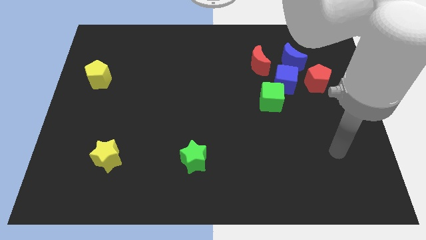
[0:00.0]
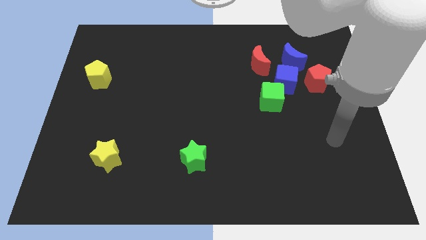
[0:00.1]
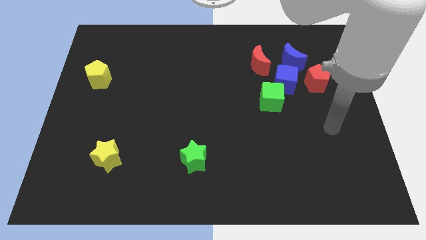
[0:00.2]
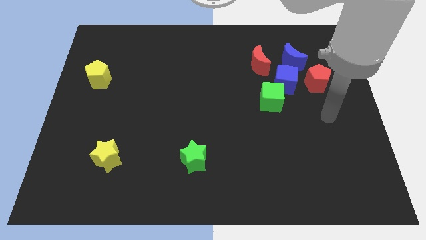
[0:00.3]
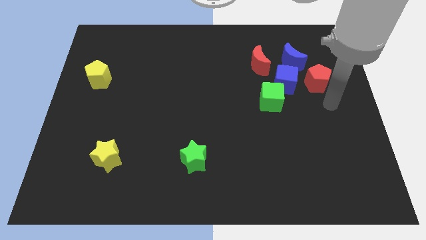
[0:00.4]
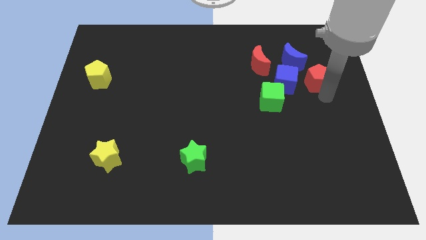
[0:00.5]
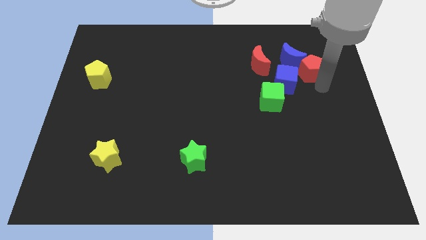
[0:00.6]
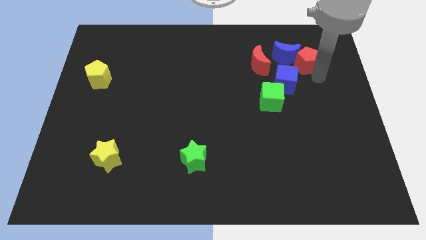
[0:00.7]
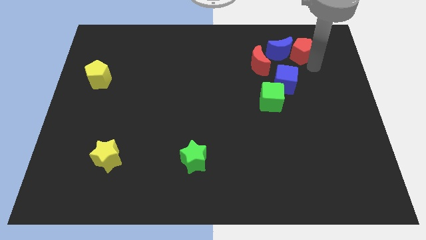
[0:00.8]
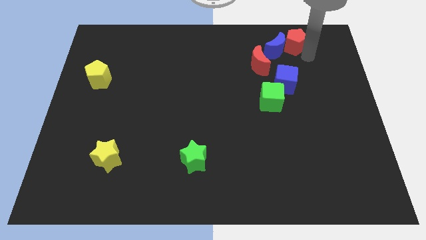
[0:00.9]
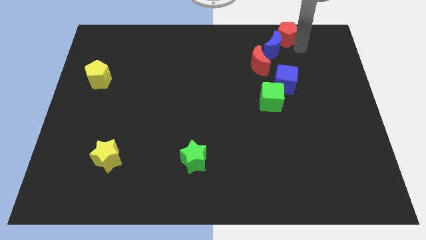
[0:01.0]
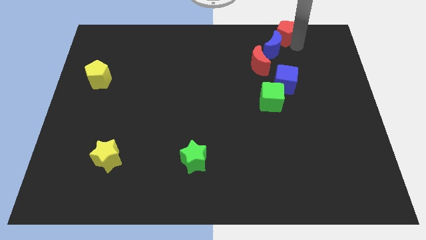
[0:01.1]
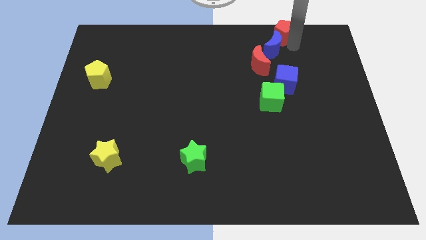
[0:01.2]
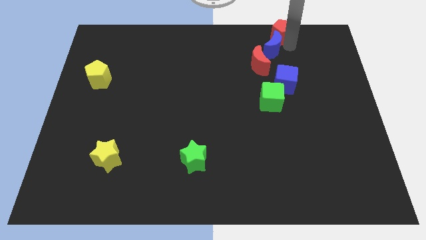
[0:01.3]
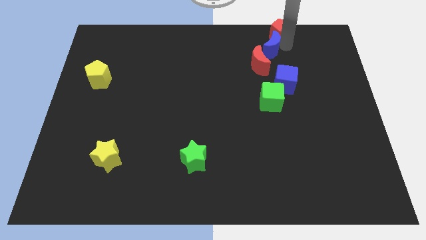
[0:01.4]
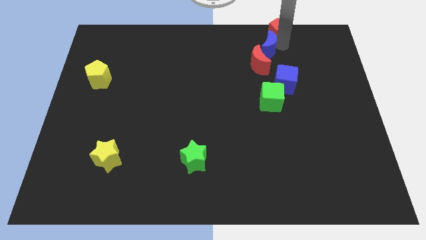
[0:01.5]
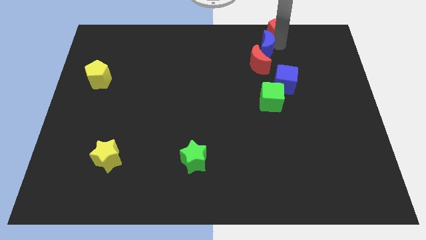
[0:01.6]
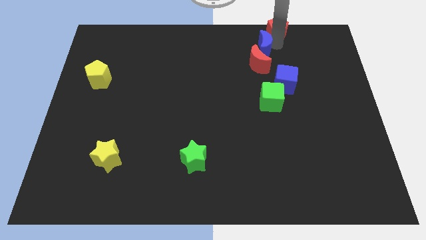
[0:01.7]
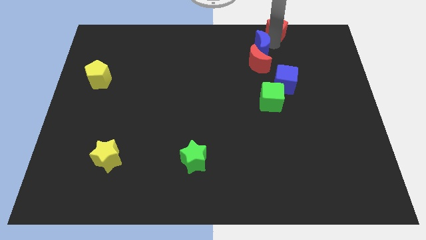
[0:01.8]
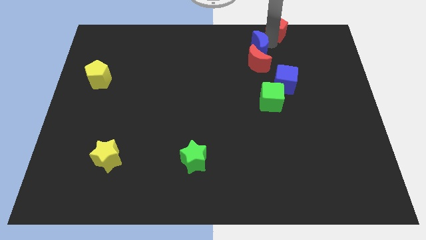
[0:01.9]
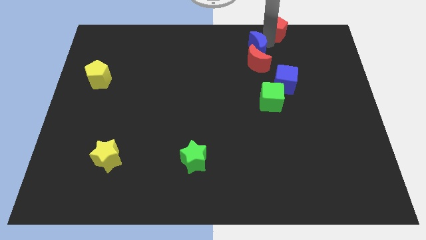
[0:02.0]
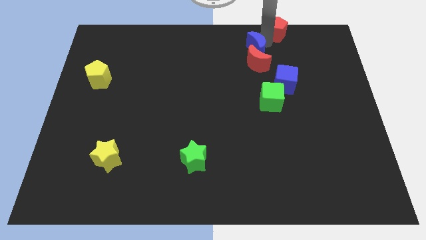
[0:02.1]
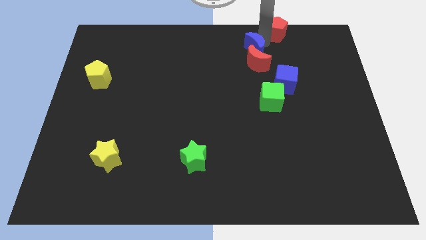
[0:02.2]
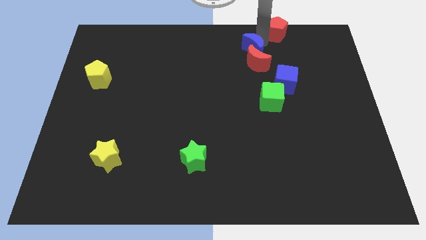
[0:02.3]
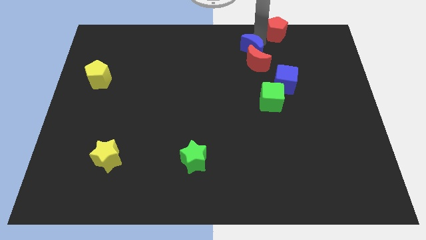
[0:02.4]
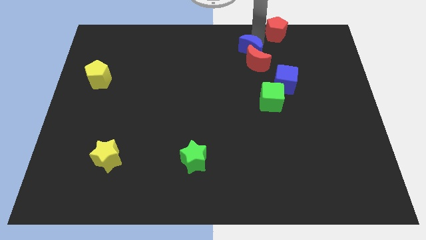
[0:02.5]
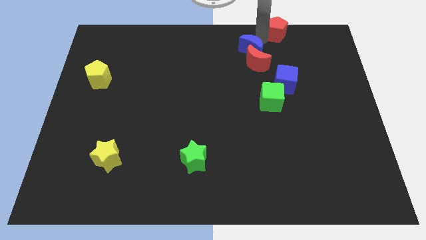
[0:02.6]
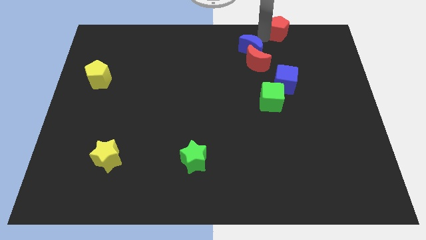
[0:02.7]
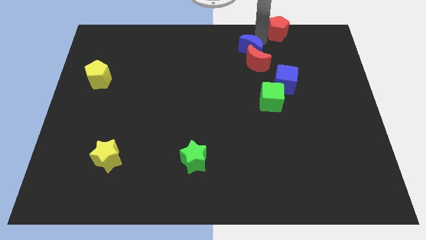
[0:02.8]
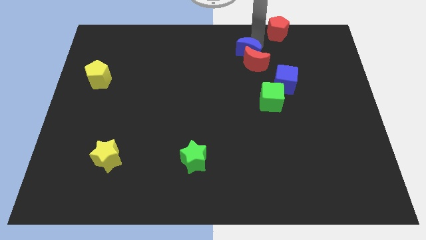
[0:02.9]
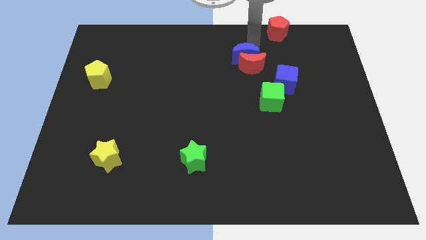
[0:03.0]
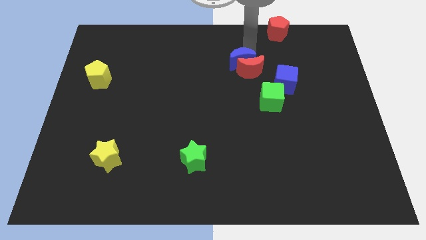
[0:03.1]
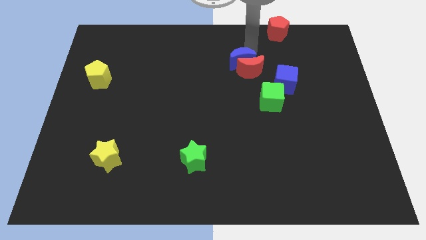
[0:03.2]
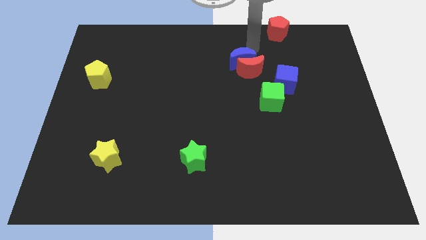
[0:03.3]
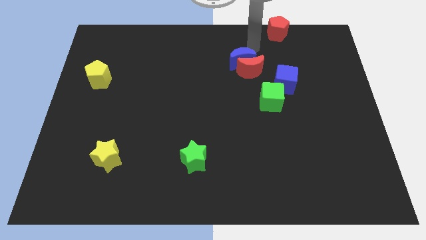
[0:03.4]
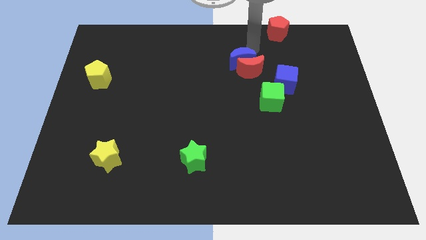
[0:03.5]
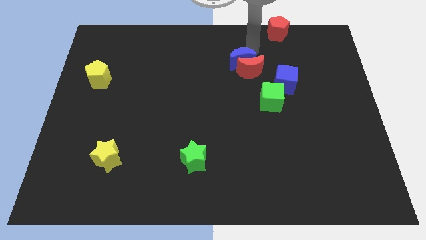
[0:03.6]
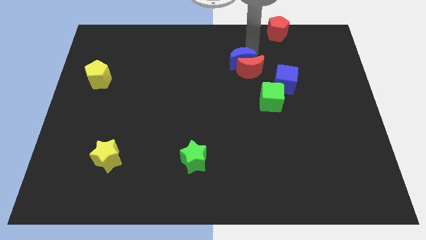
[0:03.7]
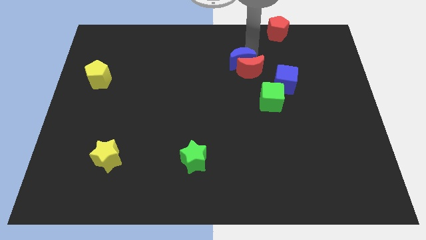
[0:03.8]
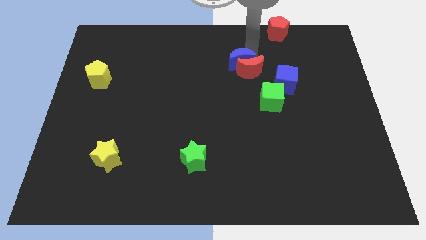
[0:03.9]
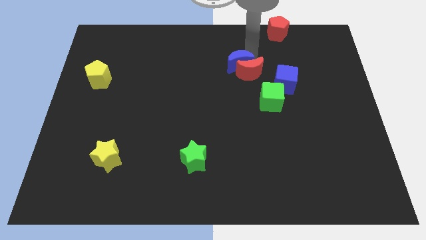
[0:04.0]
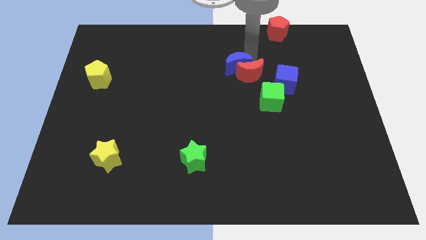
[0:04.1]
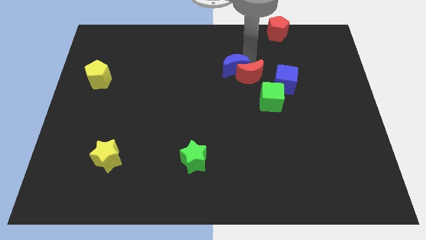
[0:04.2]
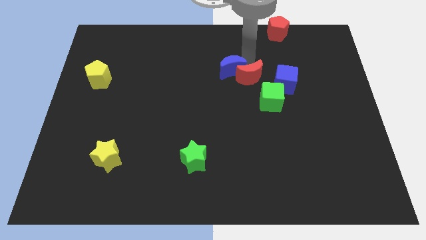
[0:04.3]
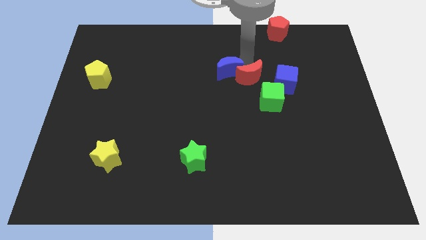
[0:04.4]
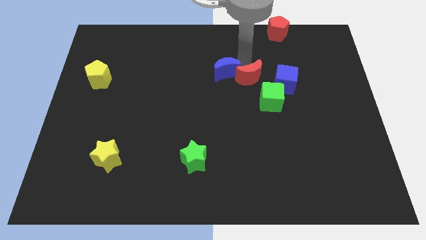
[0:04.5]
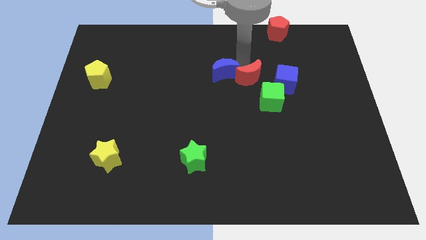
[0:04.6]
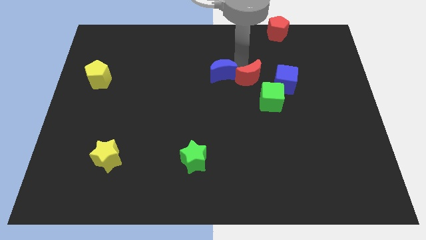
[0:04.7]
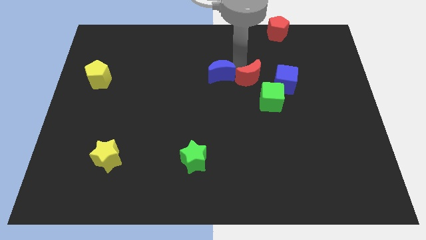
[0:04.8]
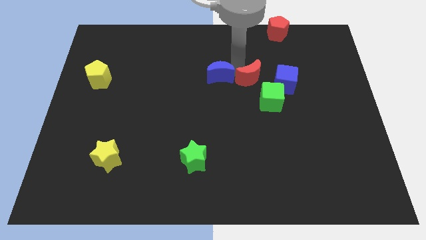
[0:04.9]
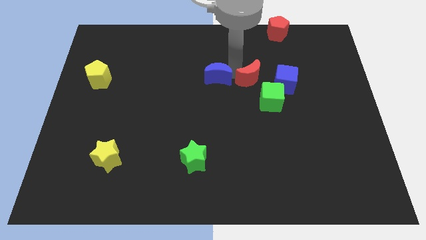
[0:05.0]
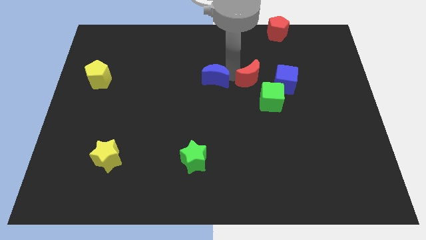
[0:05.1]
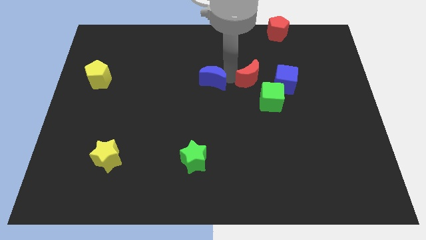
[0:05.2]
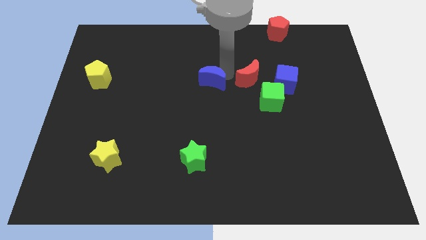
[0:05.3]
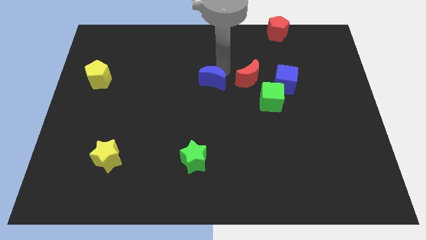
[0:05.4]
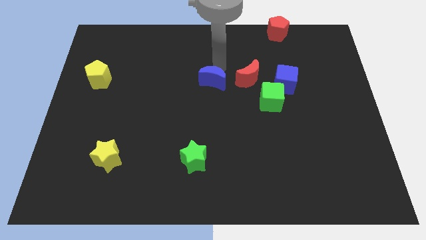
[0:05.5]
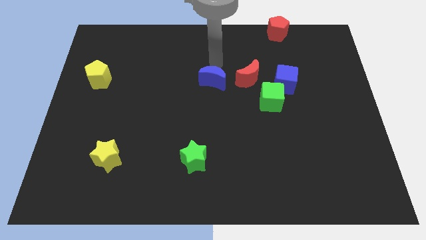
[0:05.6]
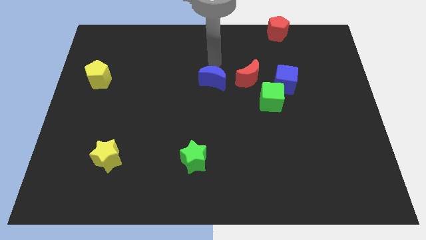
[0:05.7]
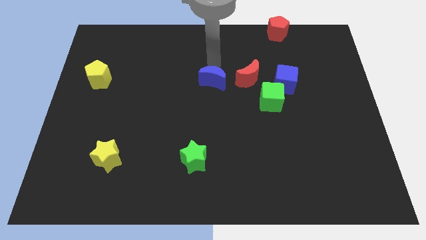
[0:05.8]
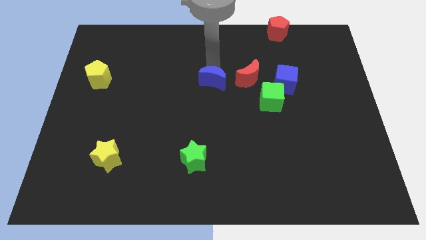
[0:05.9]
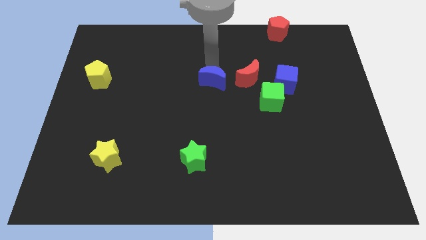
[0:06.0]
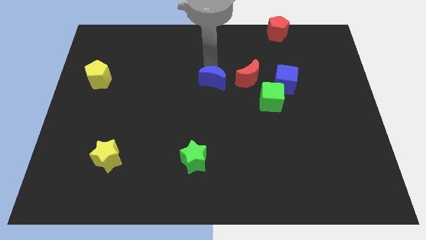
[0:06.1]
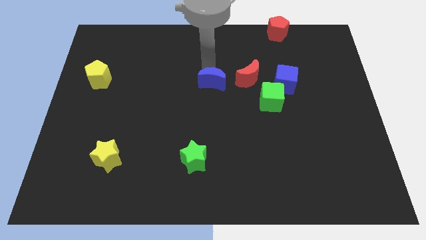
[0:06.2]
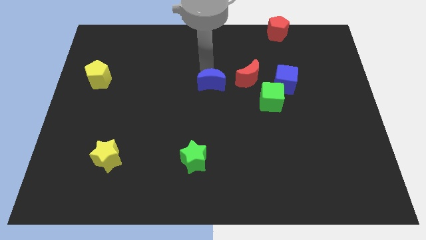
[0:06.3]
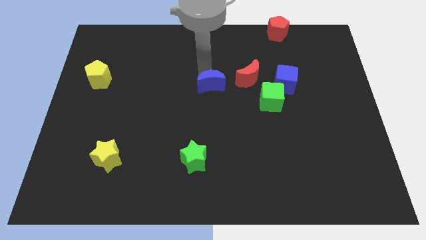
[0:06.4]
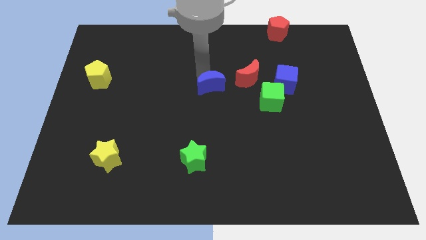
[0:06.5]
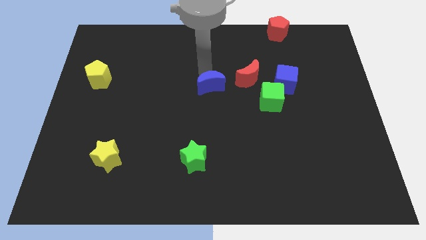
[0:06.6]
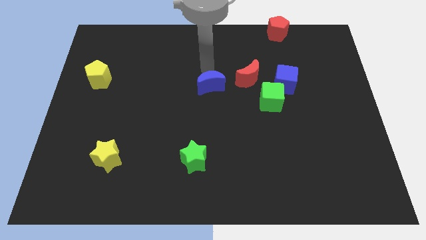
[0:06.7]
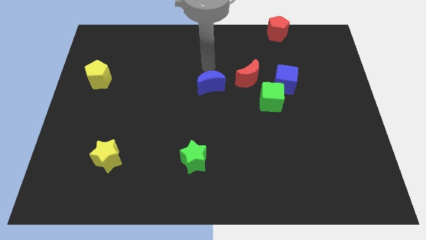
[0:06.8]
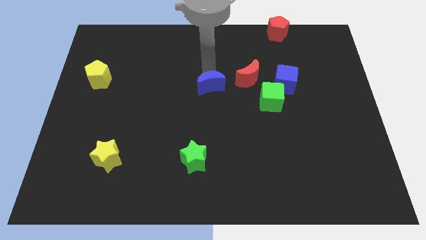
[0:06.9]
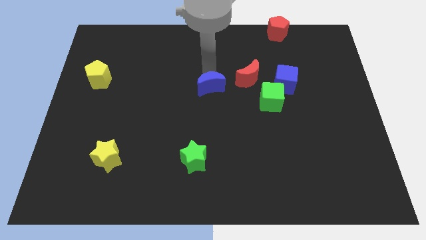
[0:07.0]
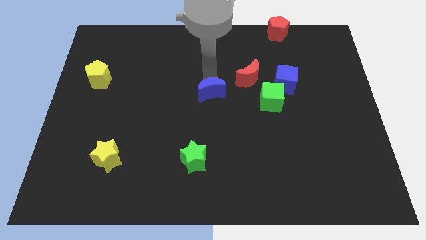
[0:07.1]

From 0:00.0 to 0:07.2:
push the blue moon down and to the left

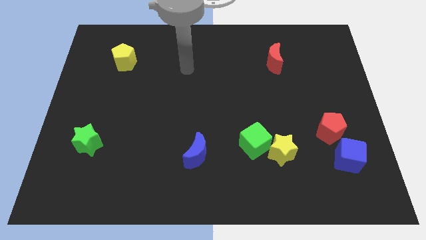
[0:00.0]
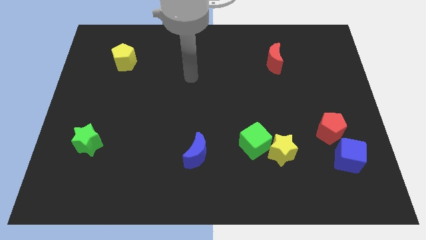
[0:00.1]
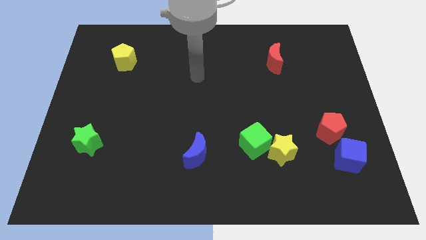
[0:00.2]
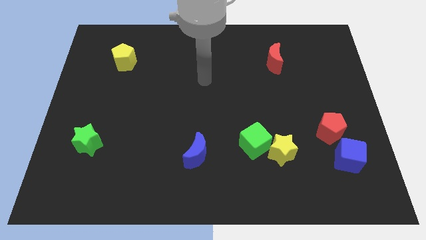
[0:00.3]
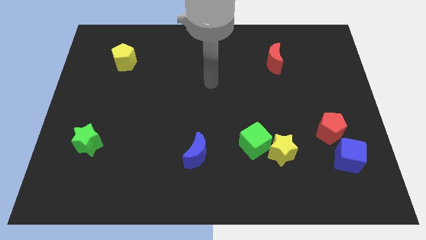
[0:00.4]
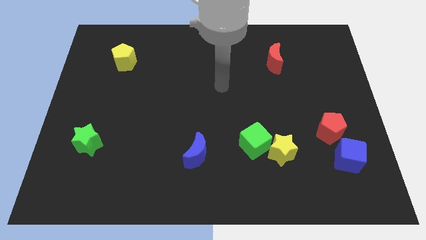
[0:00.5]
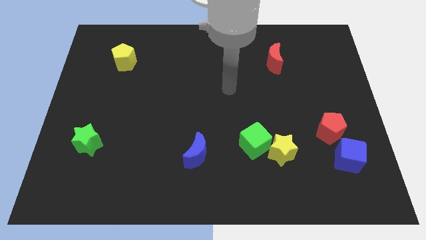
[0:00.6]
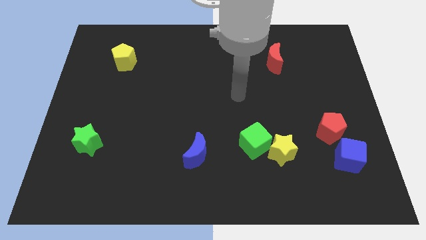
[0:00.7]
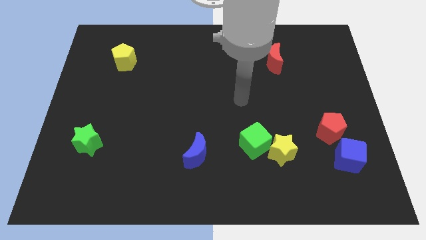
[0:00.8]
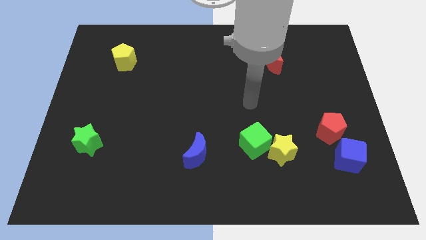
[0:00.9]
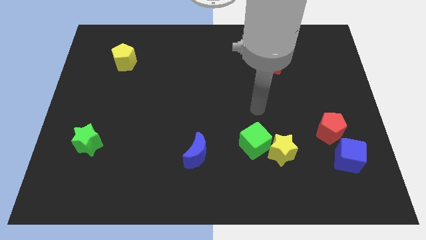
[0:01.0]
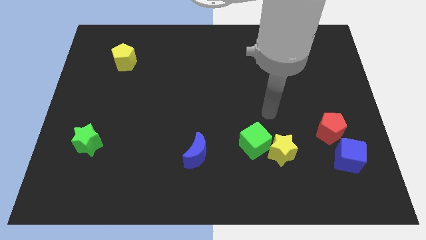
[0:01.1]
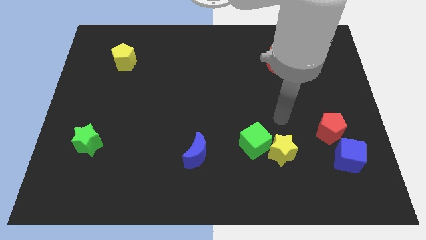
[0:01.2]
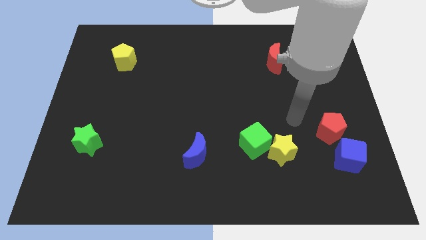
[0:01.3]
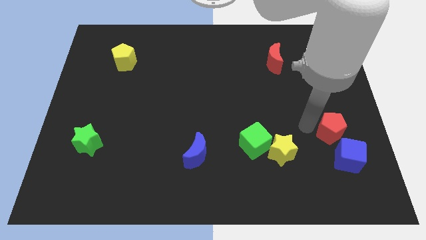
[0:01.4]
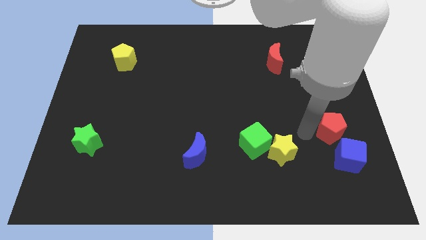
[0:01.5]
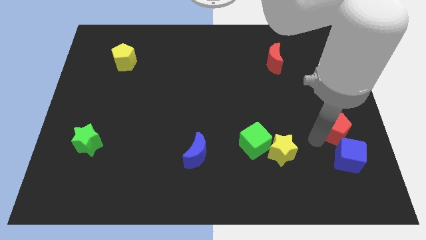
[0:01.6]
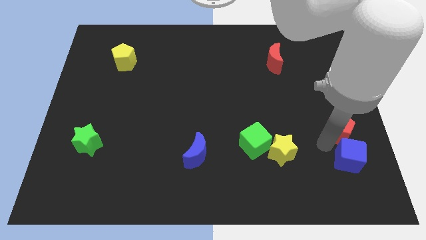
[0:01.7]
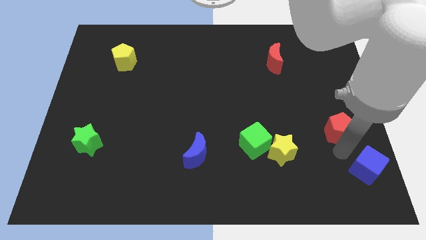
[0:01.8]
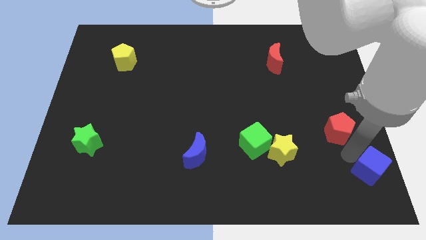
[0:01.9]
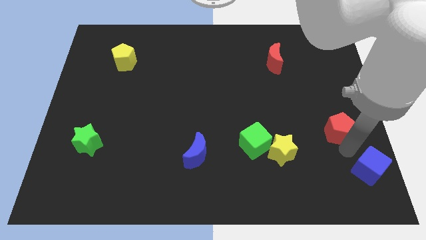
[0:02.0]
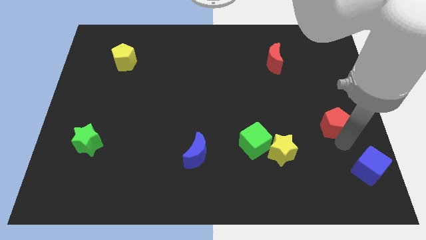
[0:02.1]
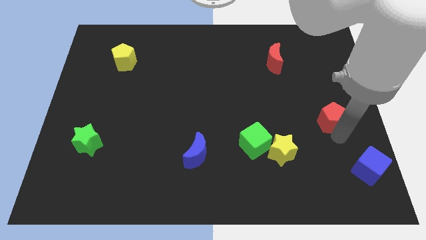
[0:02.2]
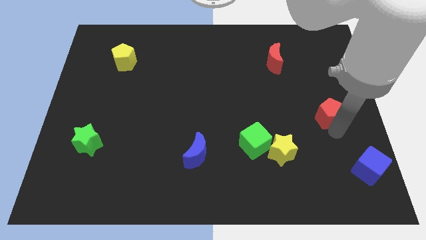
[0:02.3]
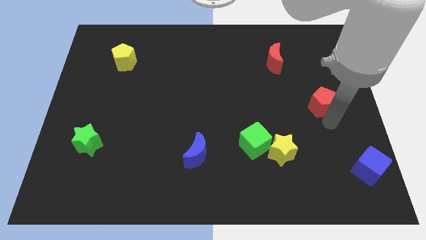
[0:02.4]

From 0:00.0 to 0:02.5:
push the red pentagon up a little
